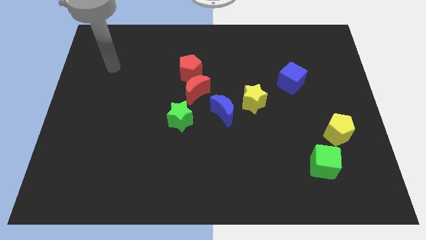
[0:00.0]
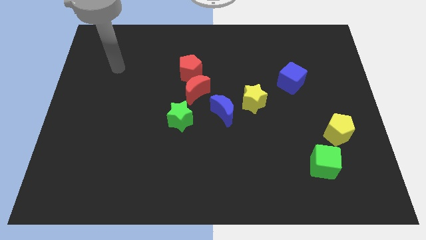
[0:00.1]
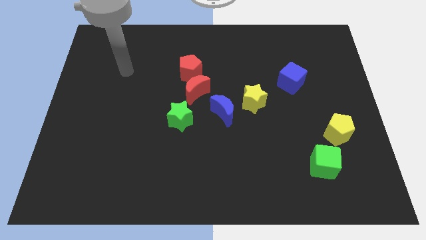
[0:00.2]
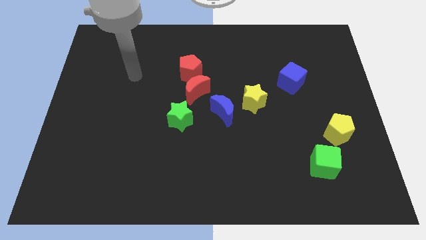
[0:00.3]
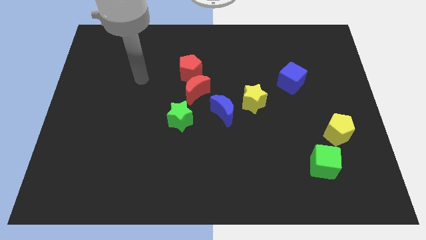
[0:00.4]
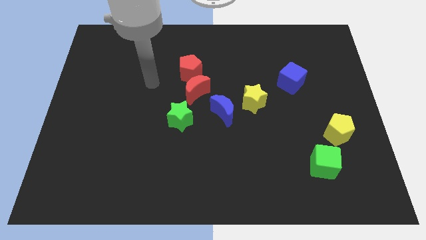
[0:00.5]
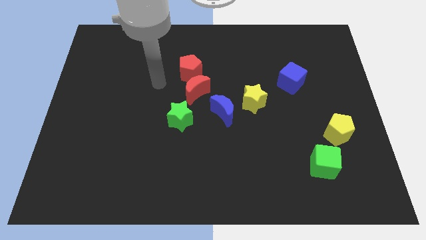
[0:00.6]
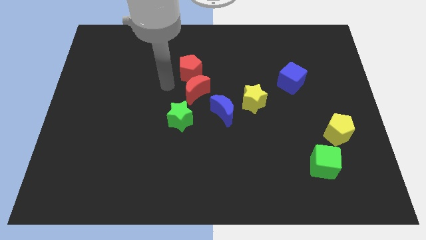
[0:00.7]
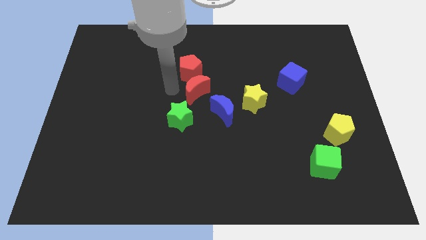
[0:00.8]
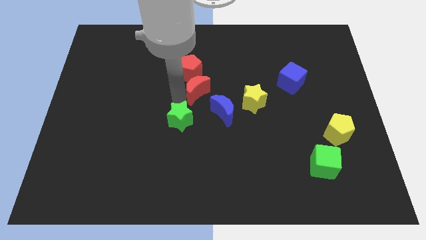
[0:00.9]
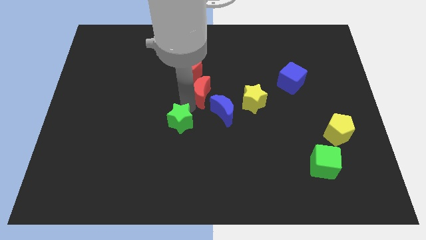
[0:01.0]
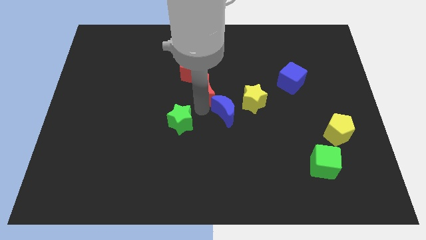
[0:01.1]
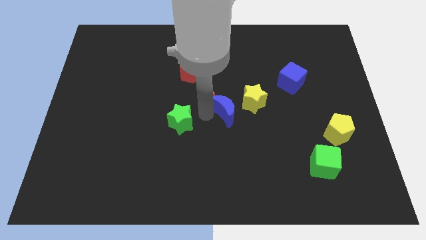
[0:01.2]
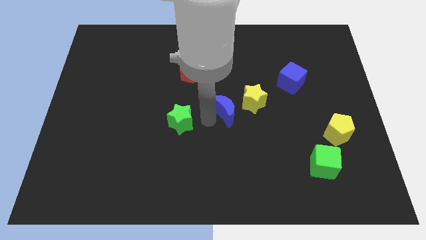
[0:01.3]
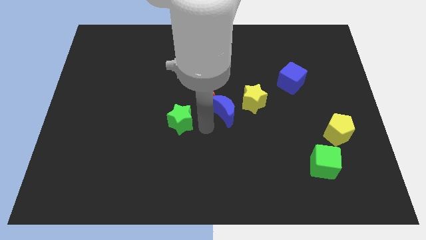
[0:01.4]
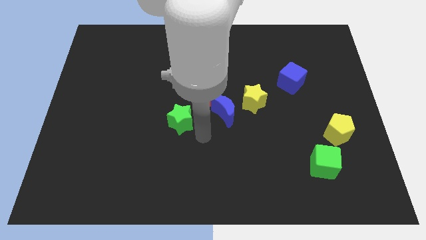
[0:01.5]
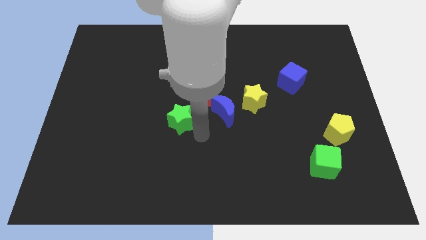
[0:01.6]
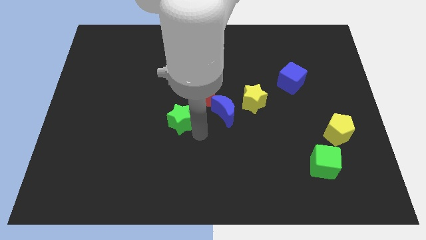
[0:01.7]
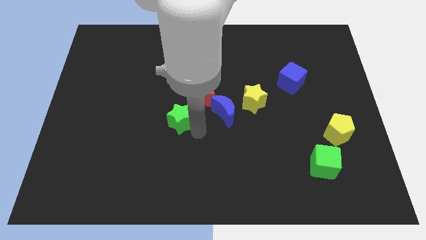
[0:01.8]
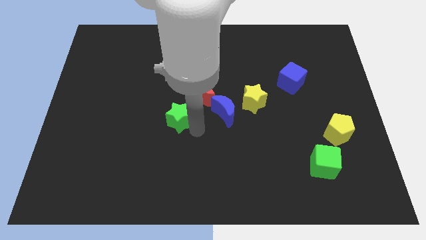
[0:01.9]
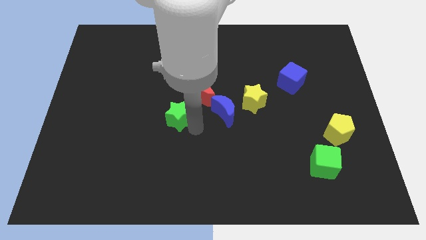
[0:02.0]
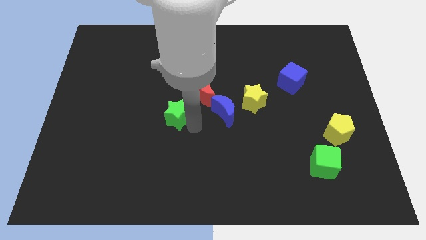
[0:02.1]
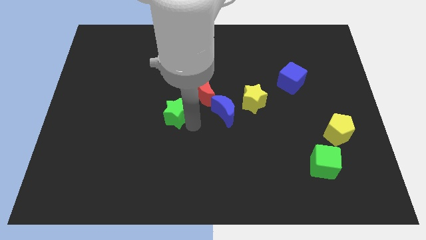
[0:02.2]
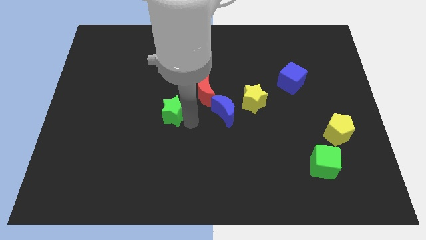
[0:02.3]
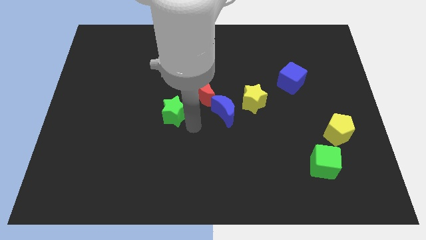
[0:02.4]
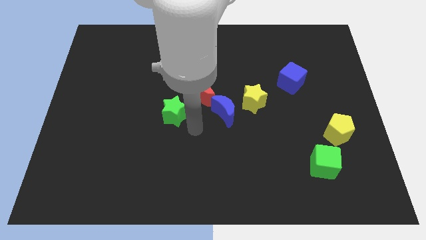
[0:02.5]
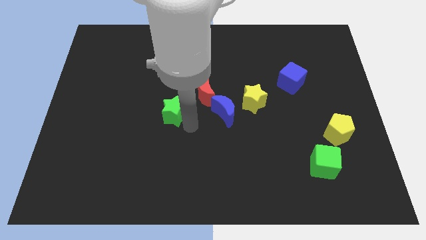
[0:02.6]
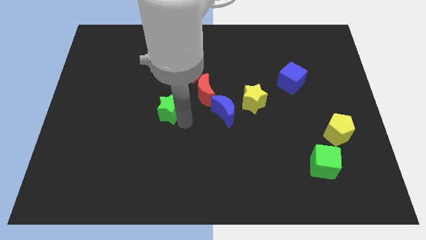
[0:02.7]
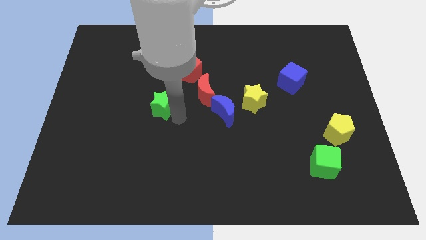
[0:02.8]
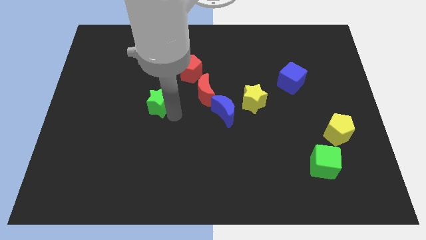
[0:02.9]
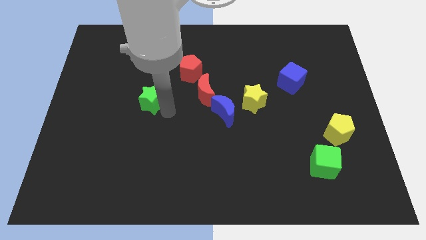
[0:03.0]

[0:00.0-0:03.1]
push the green star a bit upwards and then left

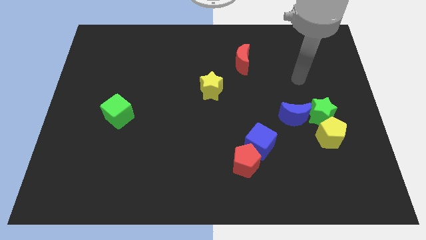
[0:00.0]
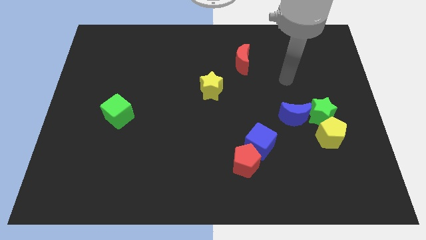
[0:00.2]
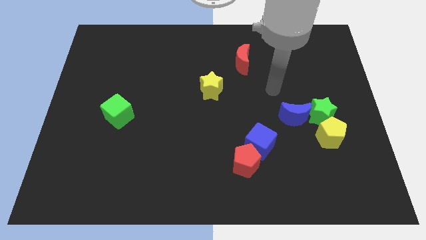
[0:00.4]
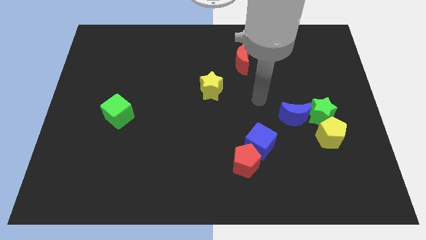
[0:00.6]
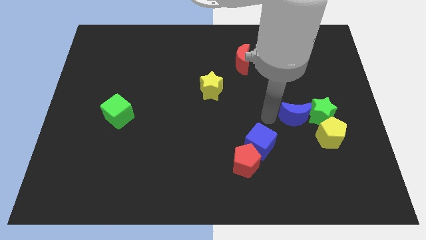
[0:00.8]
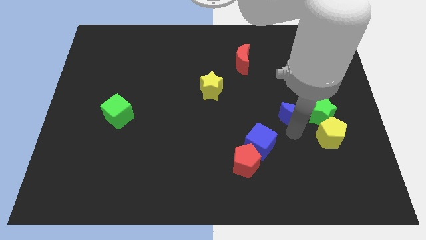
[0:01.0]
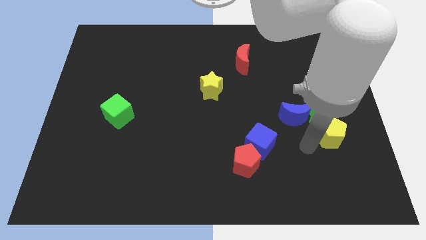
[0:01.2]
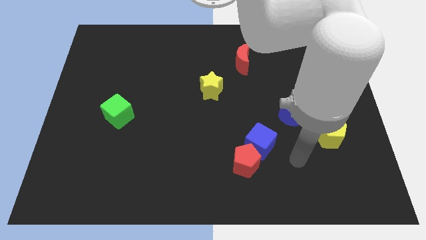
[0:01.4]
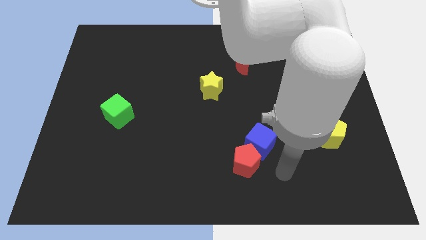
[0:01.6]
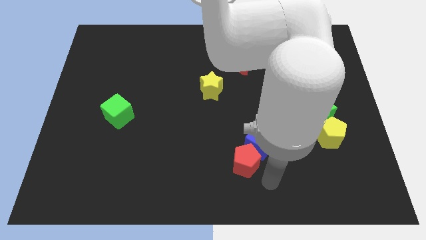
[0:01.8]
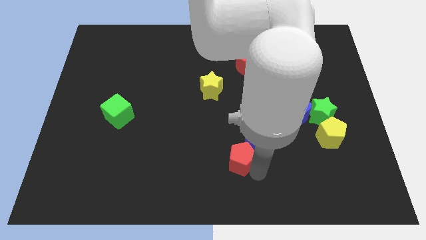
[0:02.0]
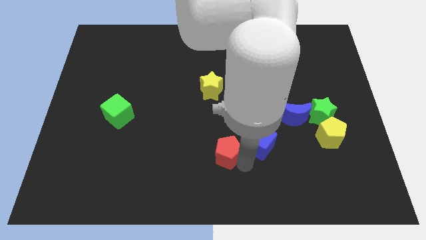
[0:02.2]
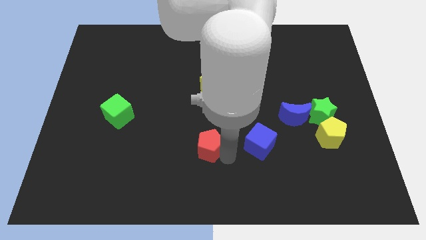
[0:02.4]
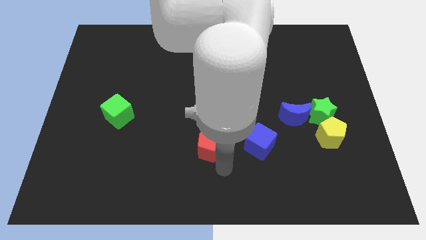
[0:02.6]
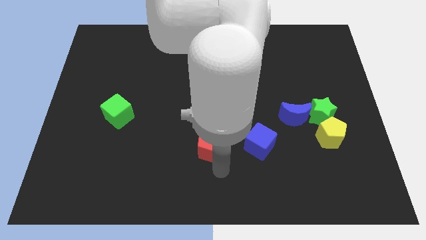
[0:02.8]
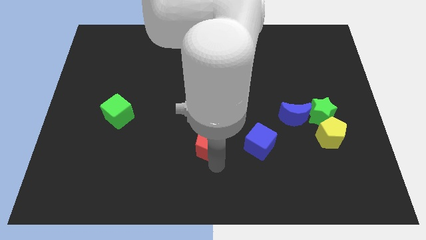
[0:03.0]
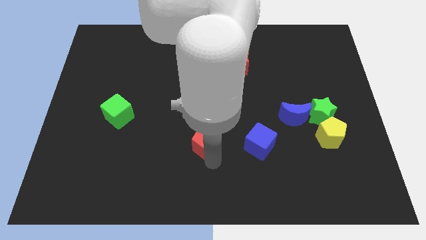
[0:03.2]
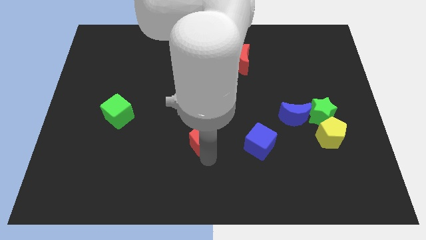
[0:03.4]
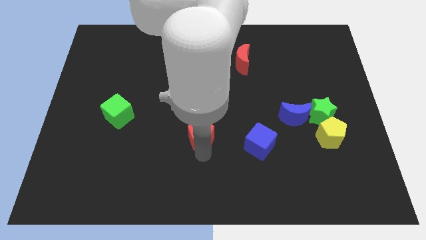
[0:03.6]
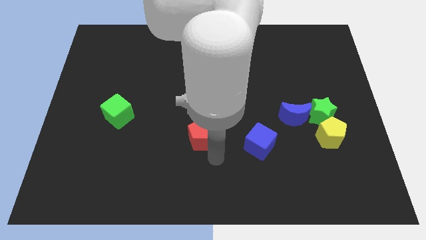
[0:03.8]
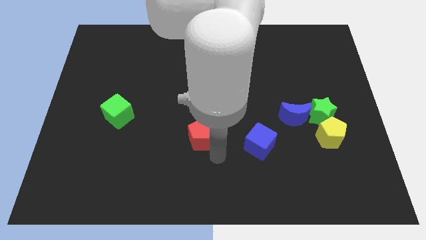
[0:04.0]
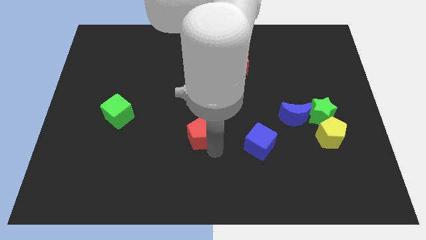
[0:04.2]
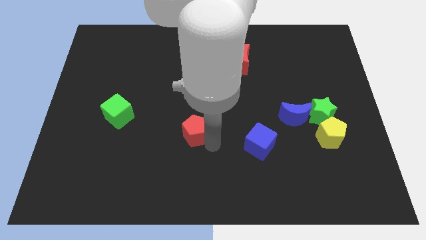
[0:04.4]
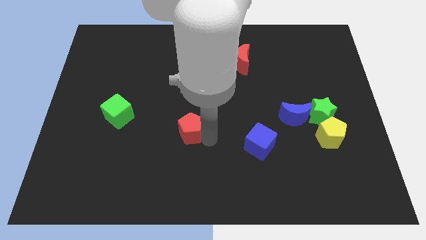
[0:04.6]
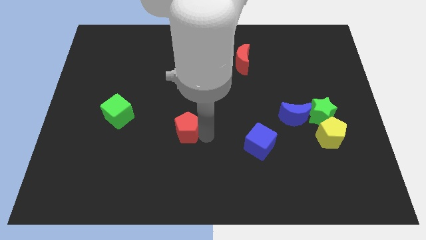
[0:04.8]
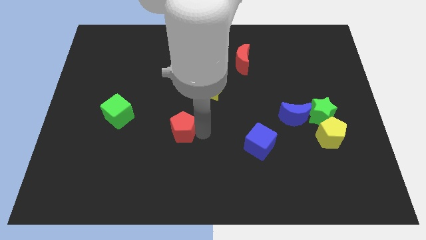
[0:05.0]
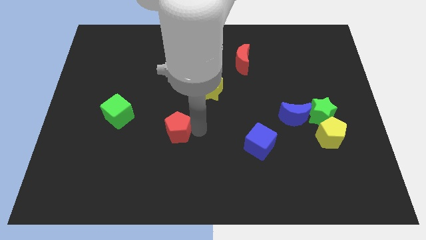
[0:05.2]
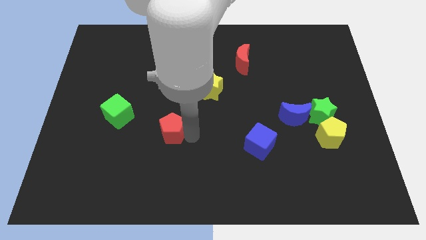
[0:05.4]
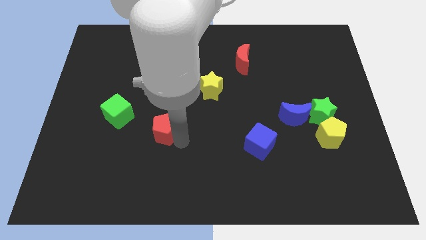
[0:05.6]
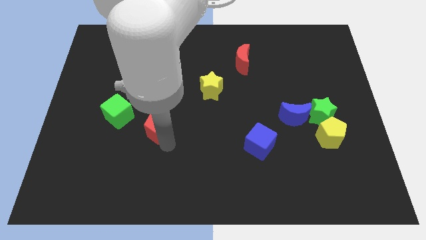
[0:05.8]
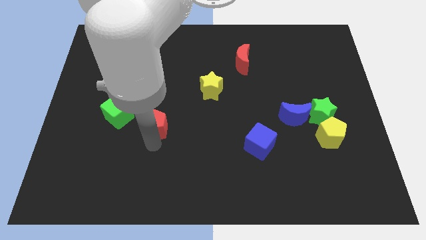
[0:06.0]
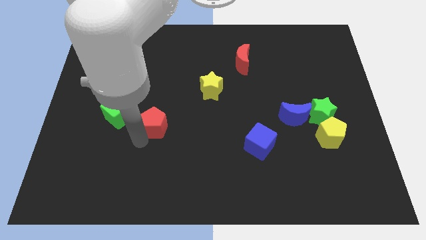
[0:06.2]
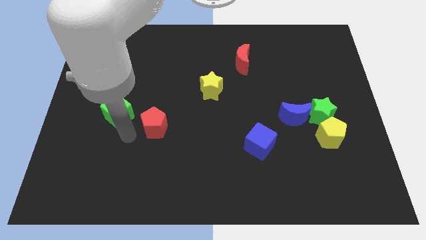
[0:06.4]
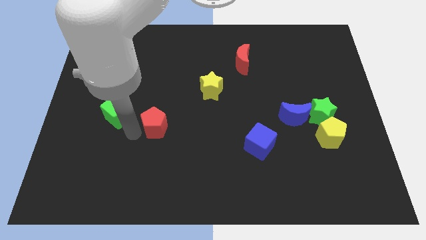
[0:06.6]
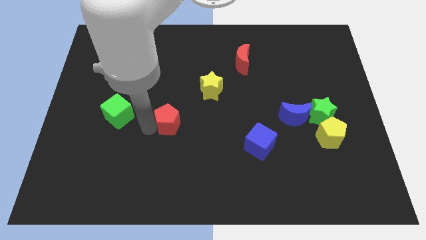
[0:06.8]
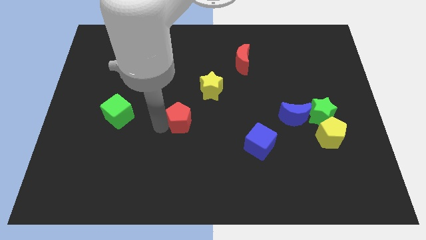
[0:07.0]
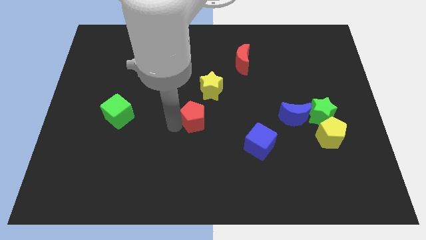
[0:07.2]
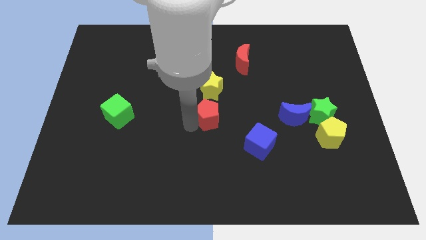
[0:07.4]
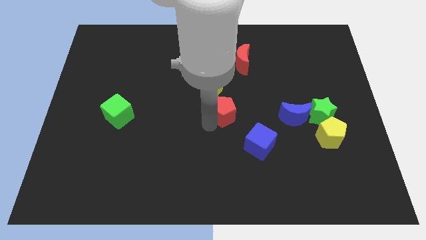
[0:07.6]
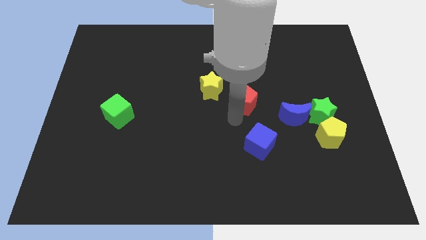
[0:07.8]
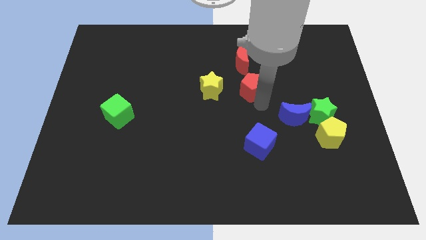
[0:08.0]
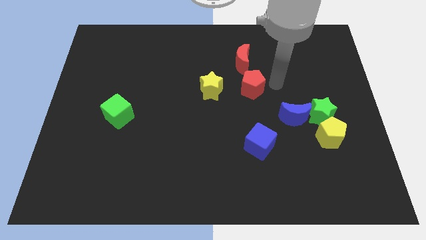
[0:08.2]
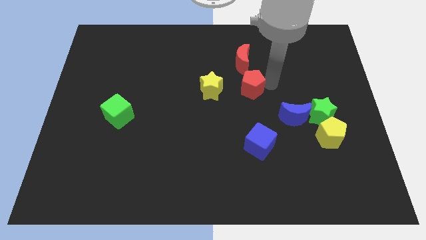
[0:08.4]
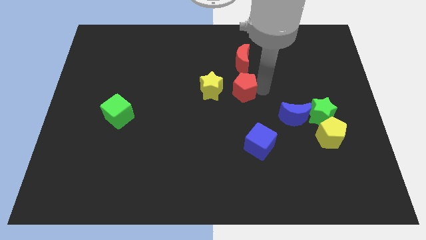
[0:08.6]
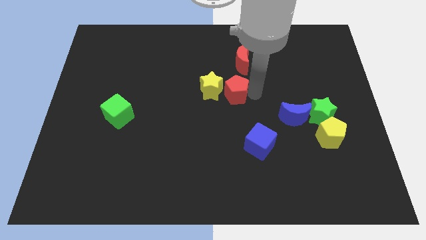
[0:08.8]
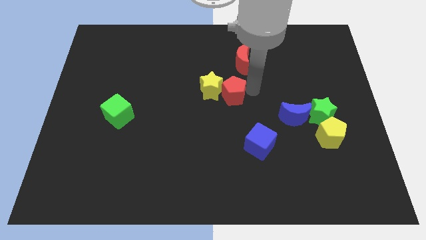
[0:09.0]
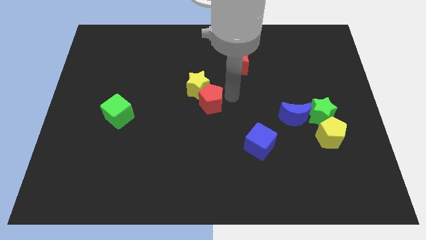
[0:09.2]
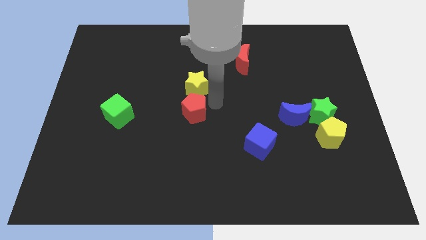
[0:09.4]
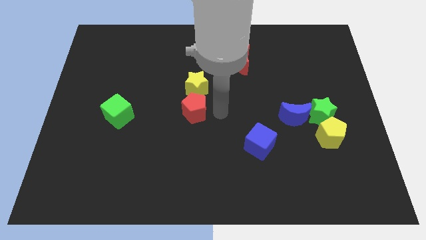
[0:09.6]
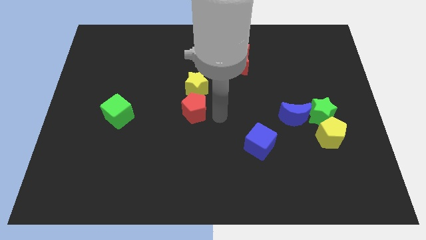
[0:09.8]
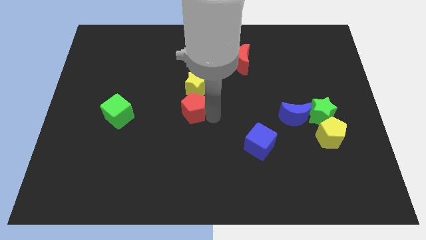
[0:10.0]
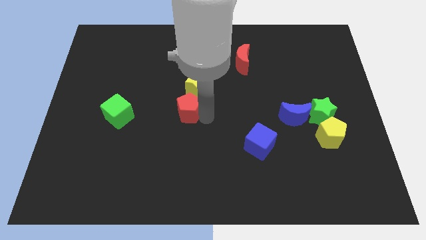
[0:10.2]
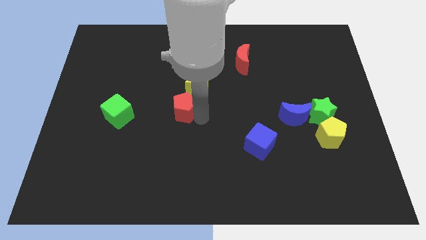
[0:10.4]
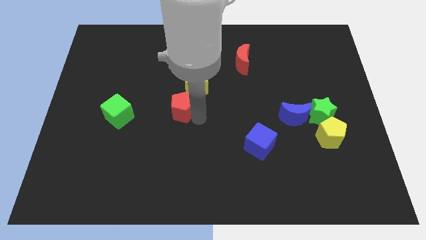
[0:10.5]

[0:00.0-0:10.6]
slide the red pentagon up and left

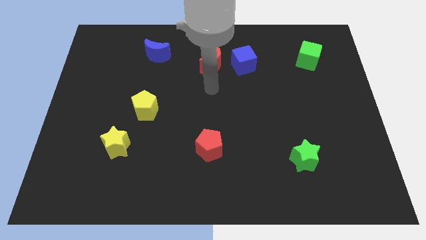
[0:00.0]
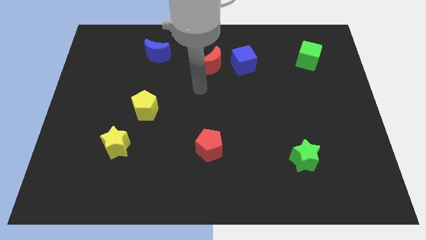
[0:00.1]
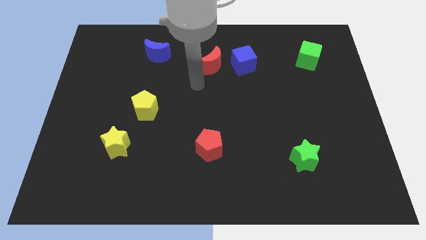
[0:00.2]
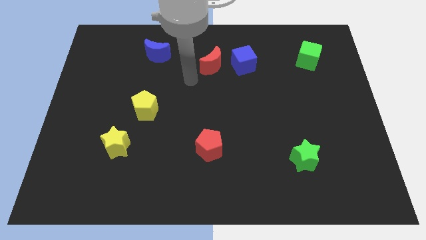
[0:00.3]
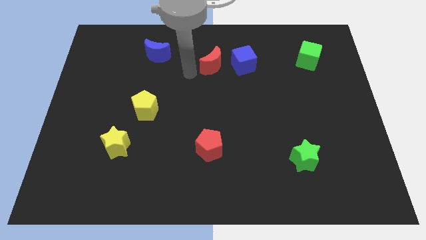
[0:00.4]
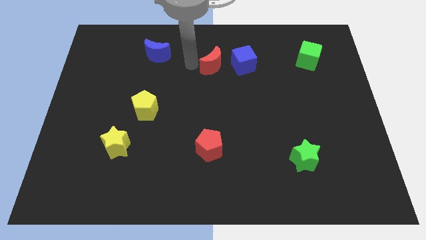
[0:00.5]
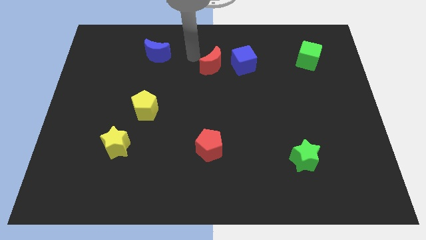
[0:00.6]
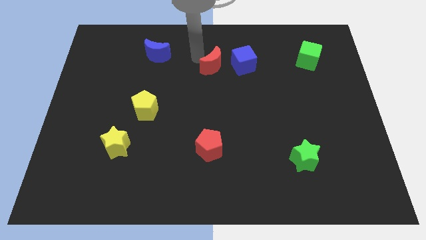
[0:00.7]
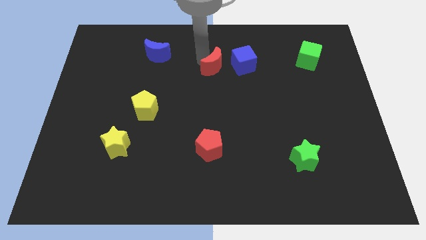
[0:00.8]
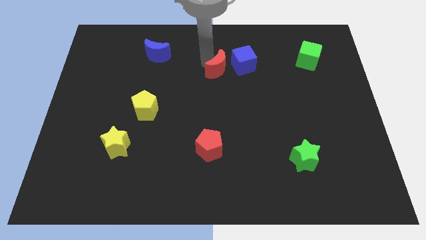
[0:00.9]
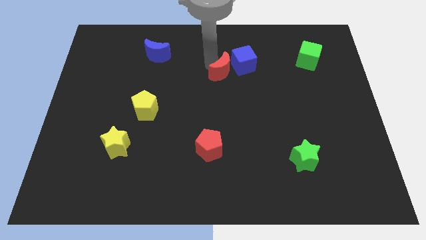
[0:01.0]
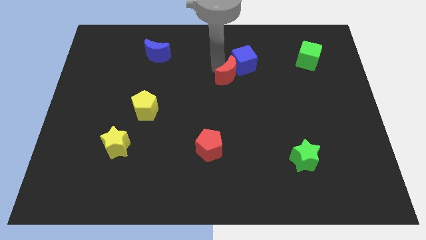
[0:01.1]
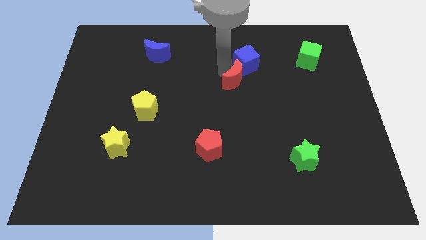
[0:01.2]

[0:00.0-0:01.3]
move the red moon a little diagonally downwards and to the right
